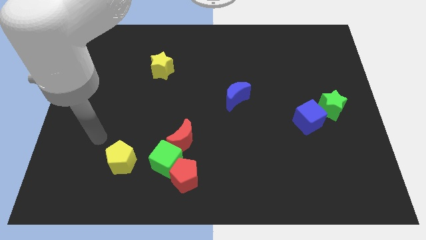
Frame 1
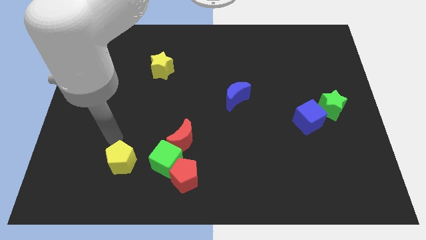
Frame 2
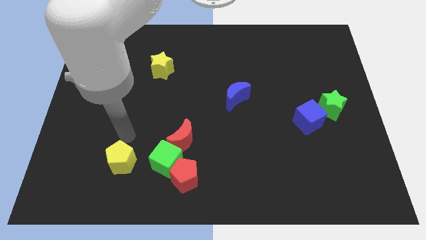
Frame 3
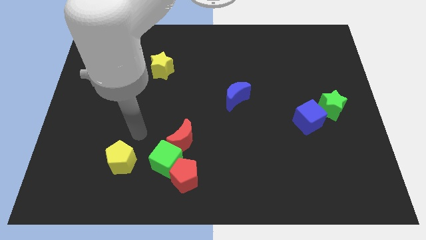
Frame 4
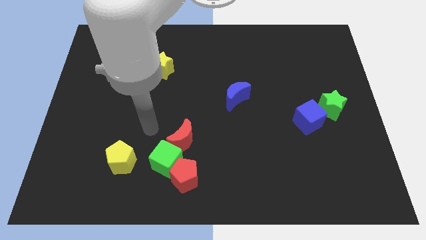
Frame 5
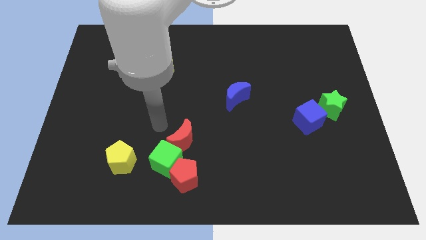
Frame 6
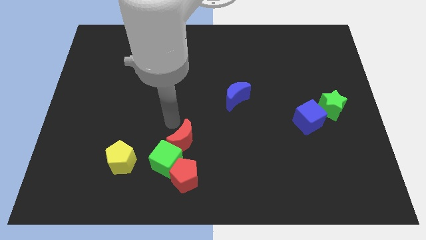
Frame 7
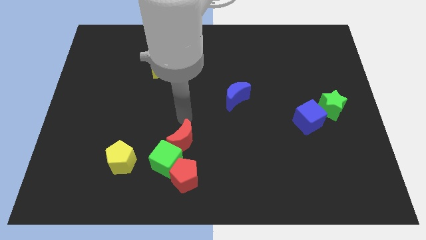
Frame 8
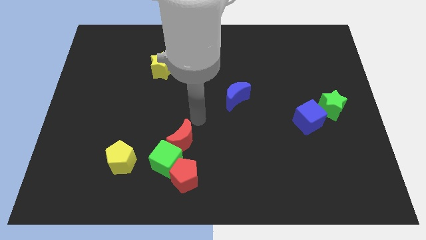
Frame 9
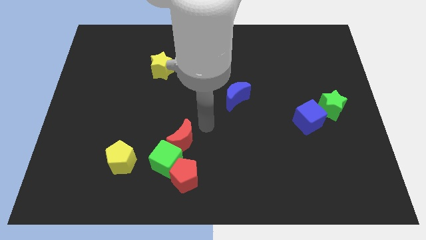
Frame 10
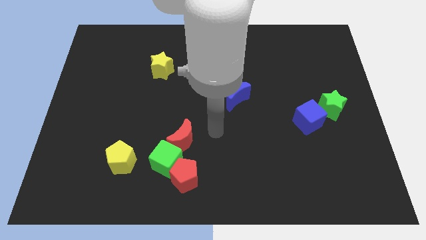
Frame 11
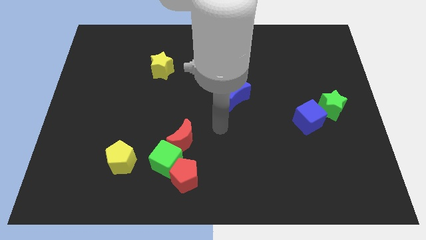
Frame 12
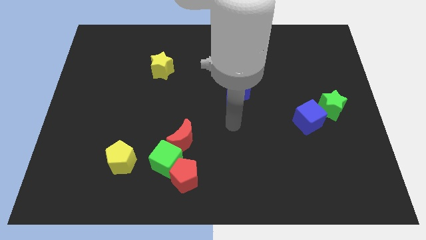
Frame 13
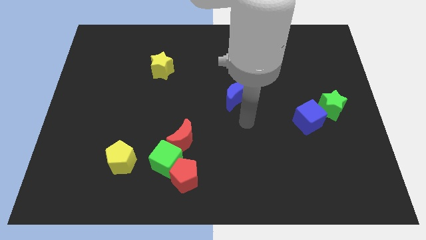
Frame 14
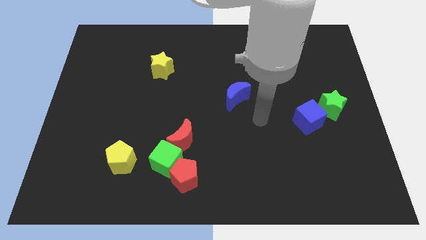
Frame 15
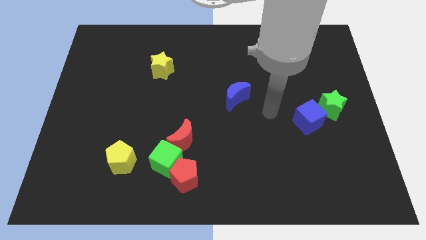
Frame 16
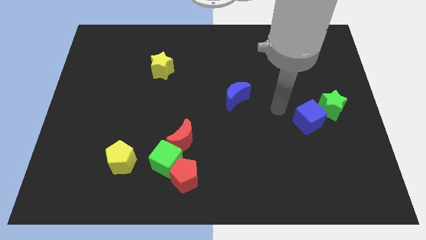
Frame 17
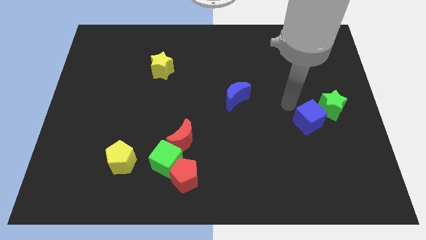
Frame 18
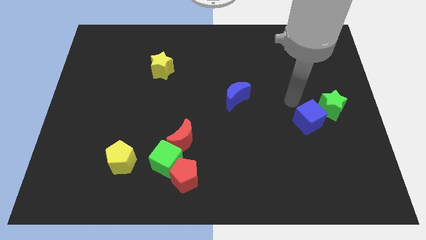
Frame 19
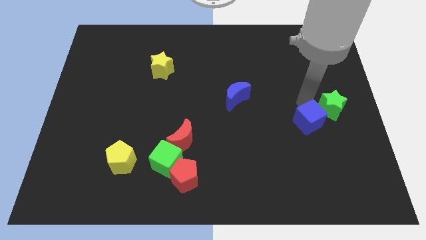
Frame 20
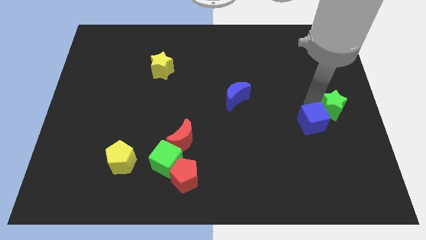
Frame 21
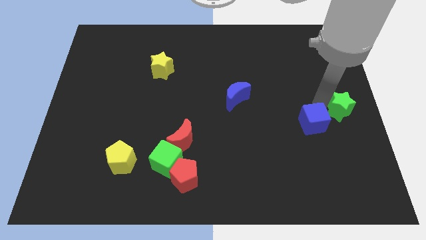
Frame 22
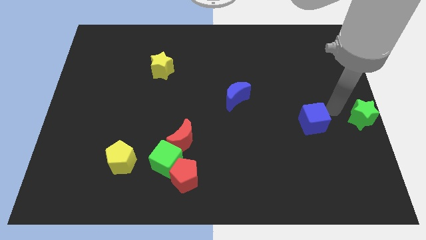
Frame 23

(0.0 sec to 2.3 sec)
separate the blue cube from the green star

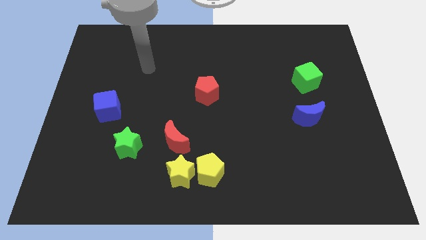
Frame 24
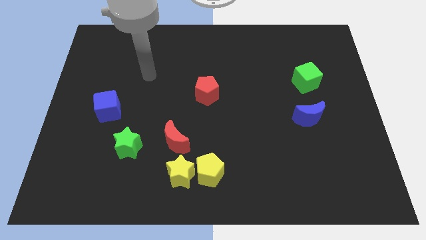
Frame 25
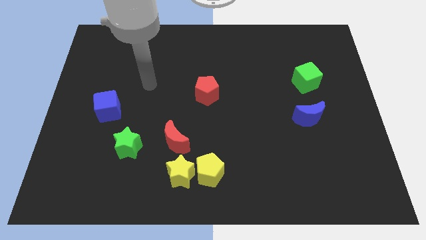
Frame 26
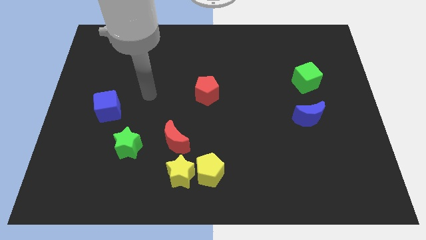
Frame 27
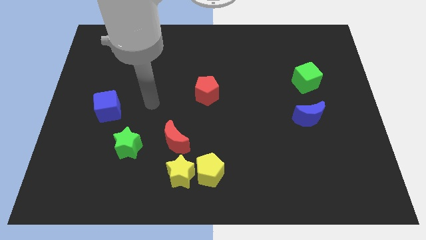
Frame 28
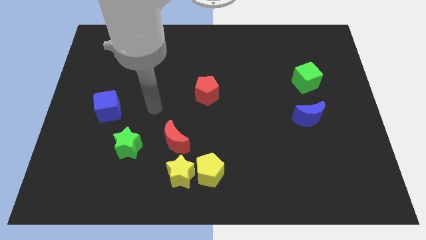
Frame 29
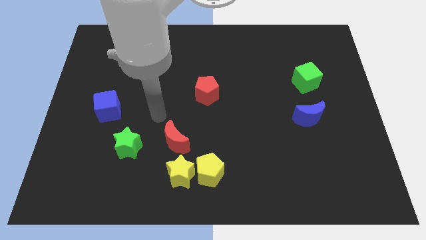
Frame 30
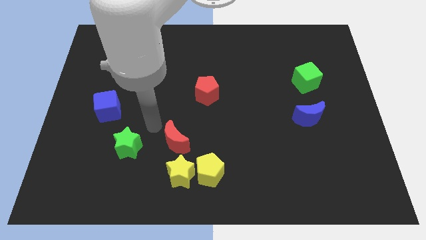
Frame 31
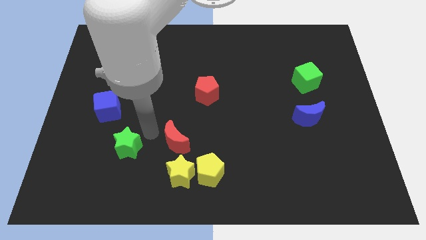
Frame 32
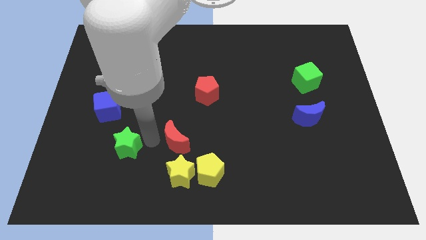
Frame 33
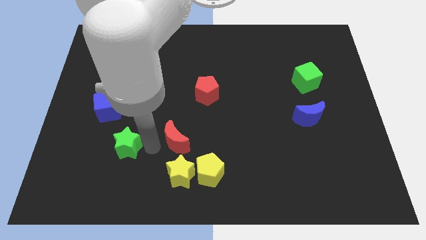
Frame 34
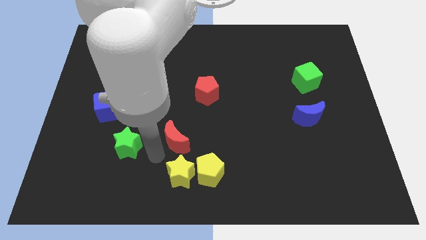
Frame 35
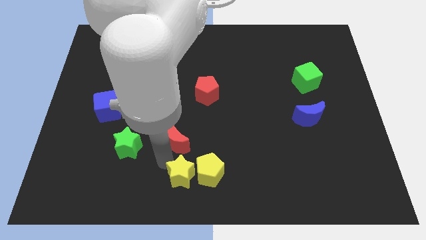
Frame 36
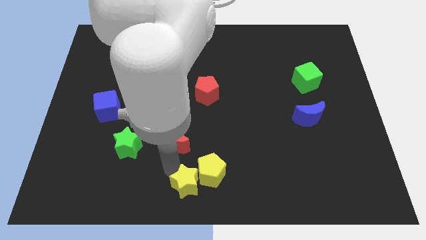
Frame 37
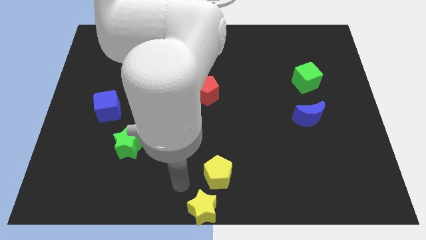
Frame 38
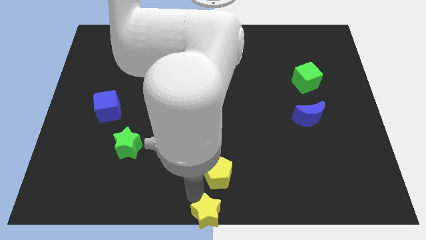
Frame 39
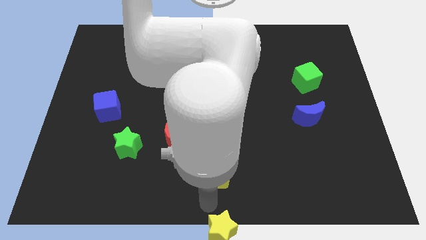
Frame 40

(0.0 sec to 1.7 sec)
move the yellow pentagon away from the yellow star

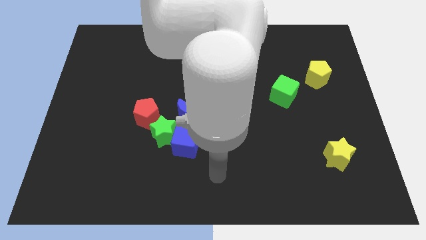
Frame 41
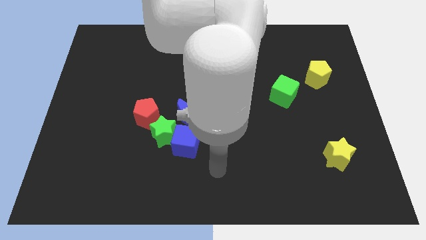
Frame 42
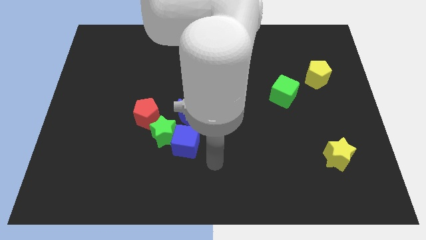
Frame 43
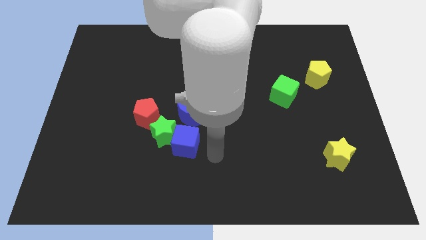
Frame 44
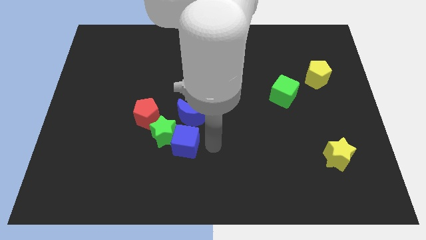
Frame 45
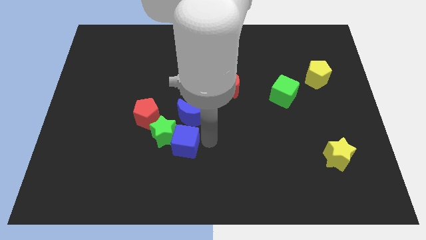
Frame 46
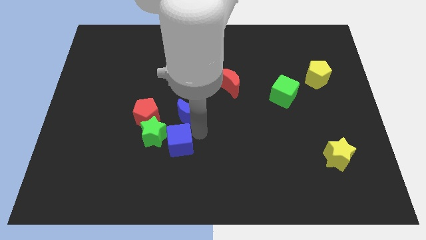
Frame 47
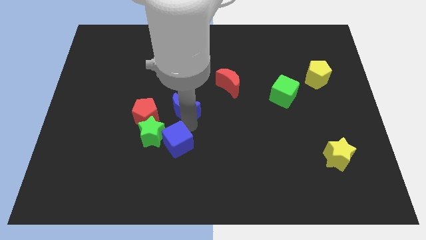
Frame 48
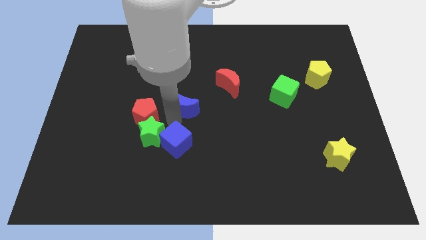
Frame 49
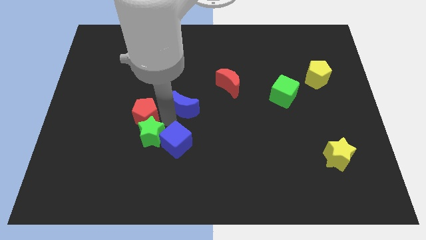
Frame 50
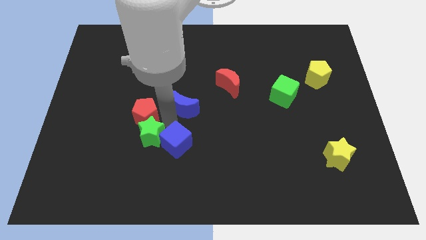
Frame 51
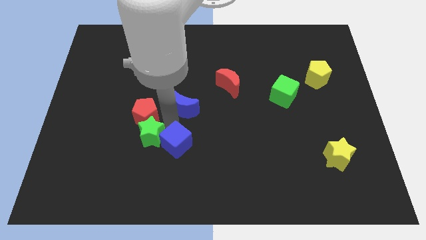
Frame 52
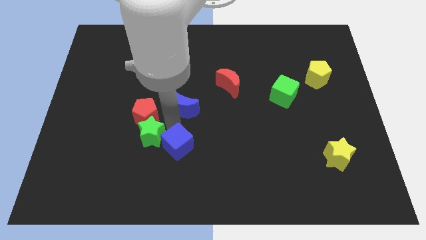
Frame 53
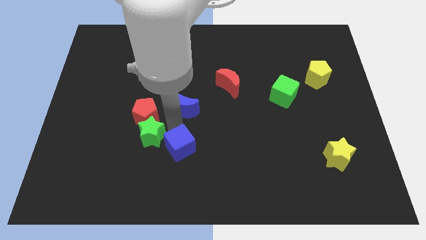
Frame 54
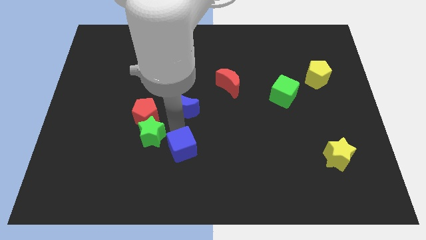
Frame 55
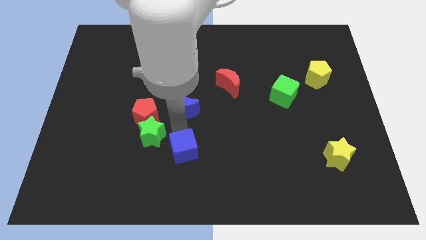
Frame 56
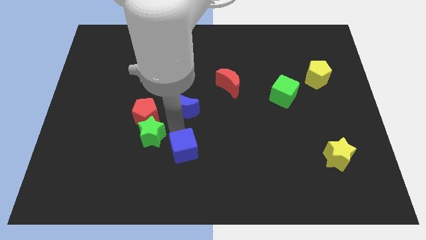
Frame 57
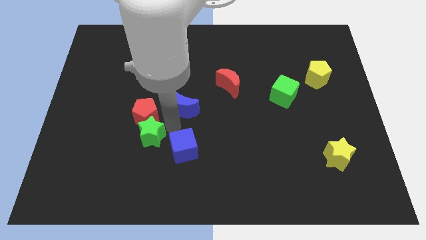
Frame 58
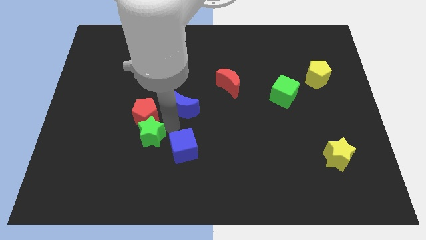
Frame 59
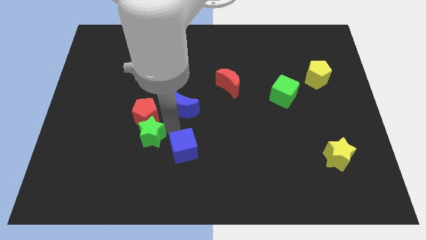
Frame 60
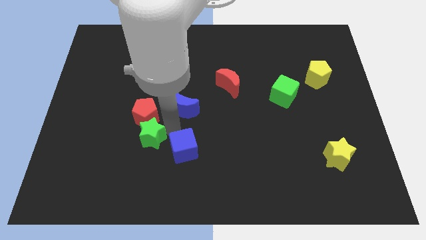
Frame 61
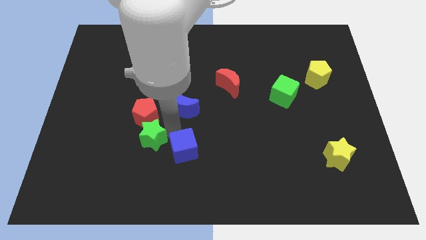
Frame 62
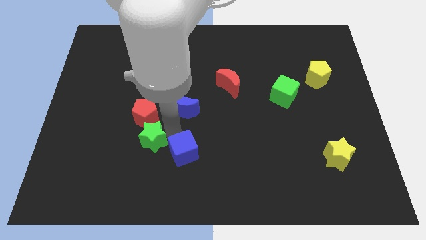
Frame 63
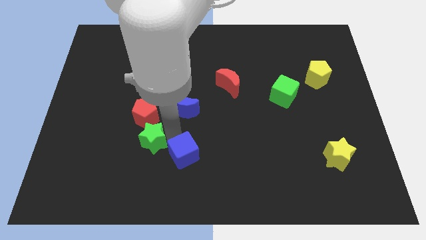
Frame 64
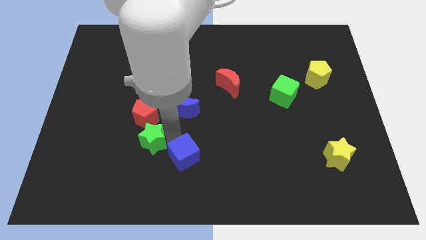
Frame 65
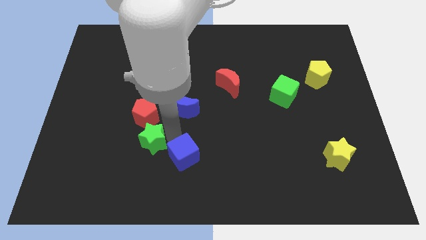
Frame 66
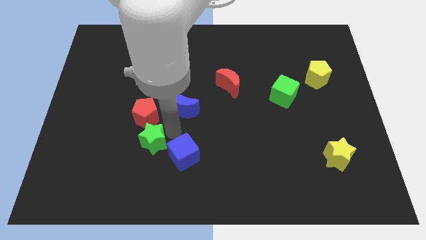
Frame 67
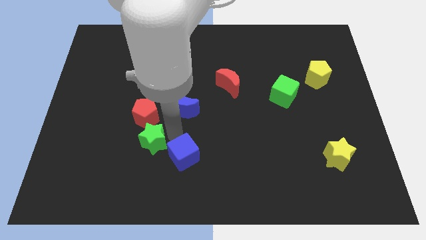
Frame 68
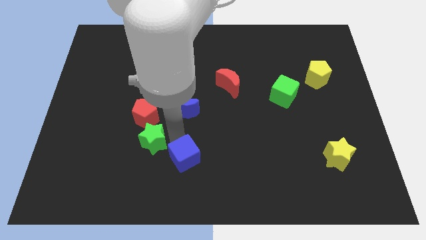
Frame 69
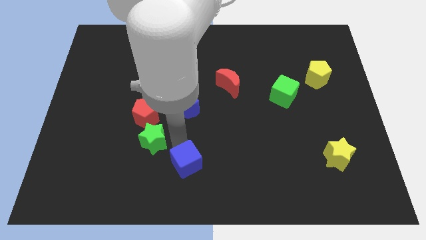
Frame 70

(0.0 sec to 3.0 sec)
separate the blue cube from the green star and blue moon

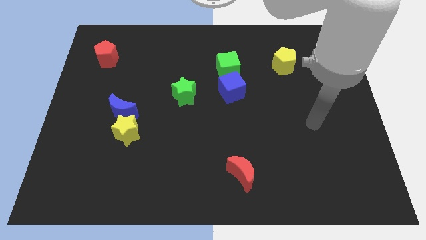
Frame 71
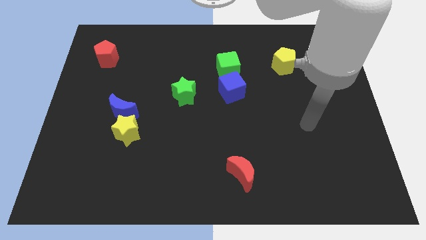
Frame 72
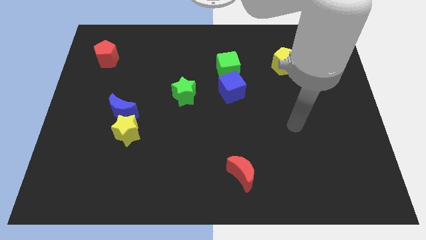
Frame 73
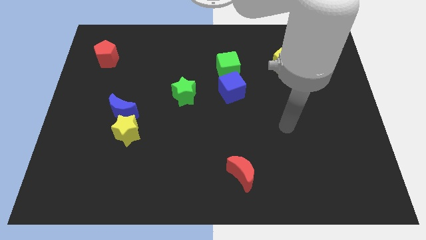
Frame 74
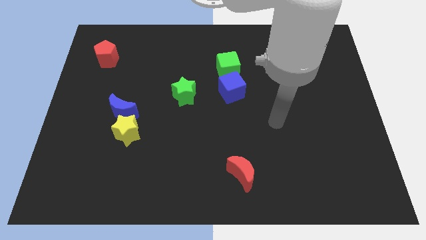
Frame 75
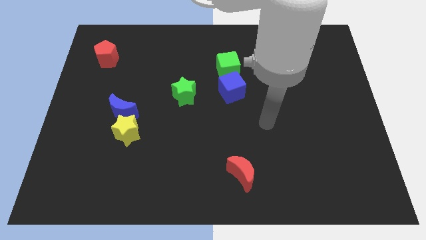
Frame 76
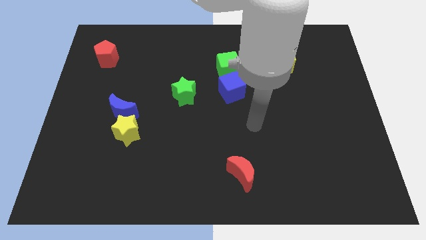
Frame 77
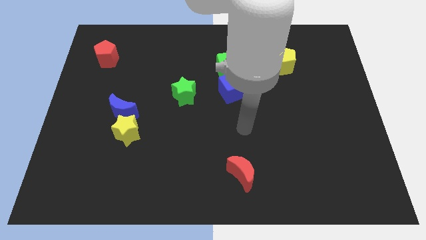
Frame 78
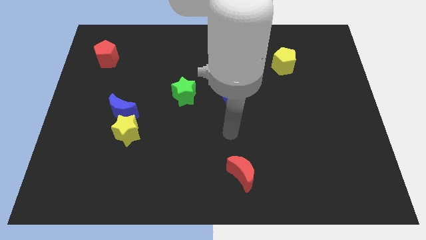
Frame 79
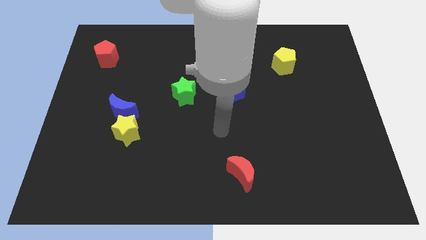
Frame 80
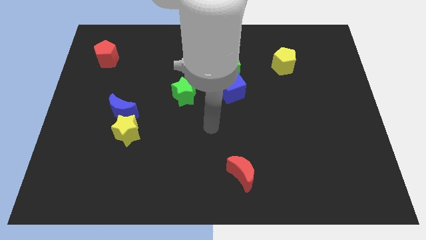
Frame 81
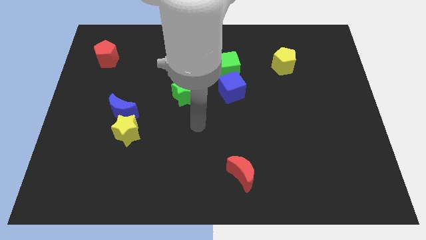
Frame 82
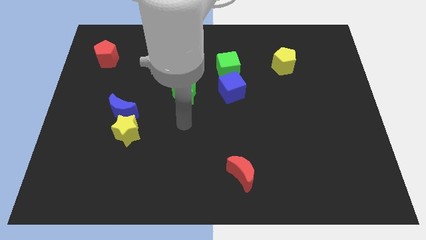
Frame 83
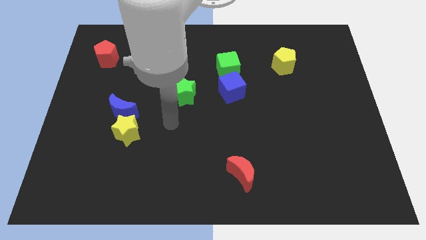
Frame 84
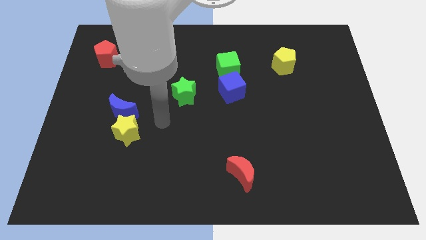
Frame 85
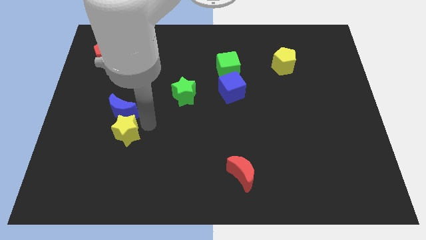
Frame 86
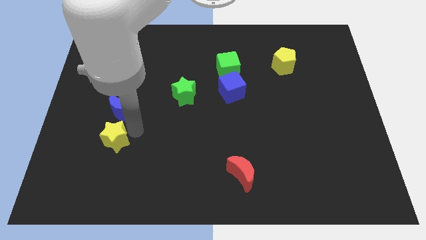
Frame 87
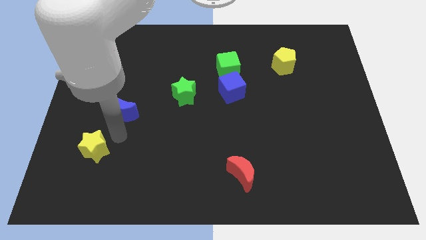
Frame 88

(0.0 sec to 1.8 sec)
pull the blue moon apart from the yellow star

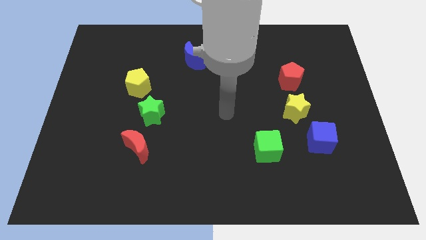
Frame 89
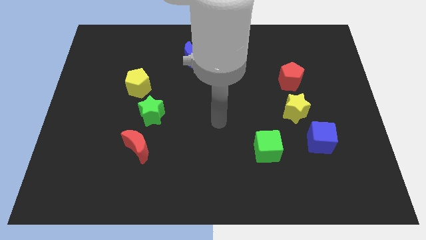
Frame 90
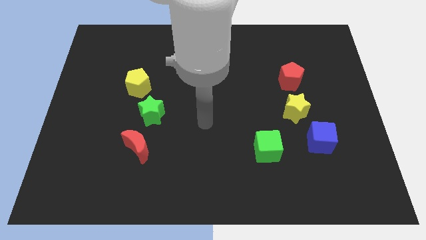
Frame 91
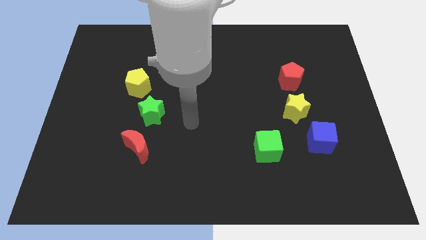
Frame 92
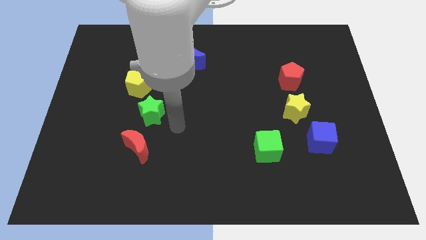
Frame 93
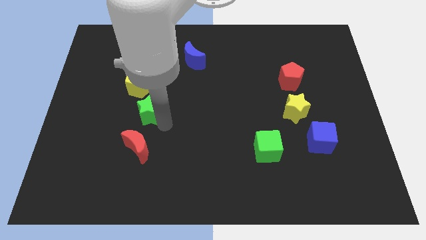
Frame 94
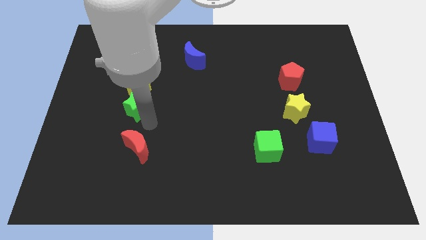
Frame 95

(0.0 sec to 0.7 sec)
move the red moon away from the green star
